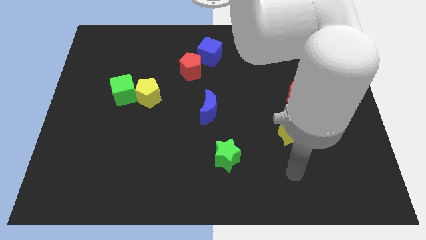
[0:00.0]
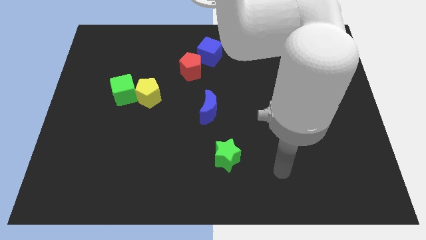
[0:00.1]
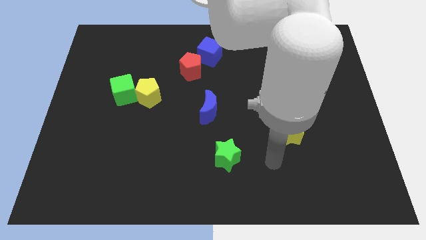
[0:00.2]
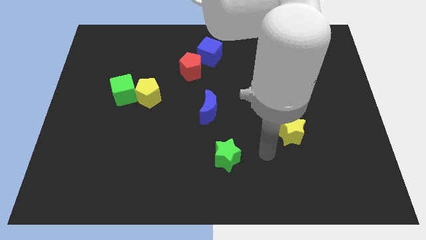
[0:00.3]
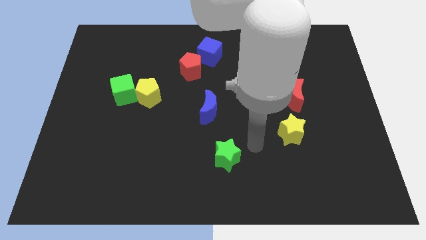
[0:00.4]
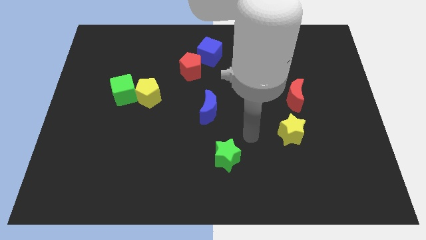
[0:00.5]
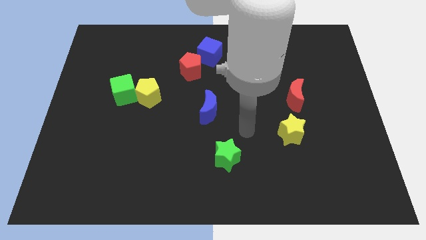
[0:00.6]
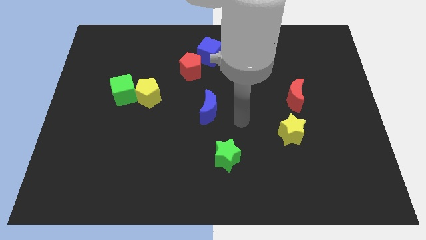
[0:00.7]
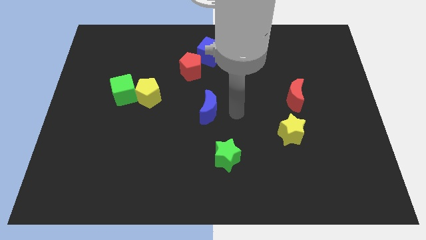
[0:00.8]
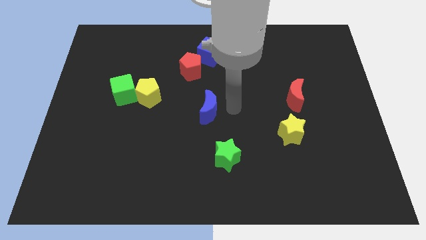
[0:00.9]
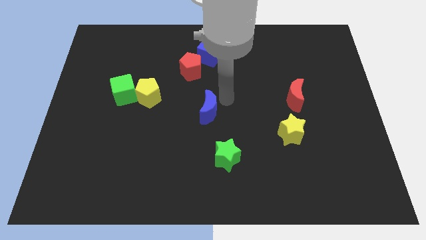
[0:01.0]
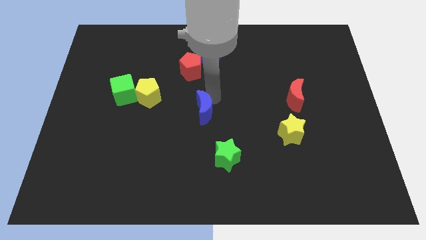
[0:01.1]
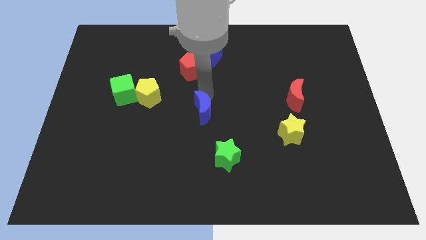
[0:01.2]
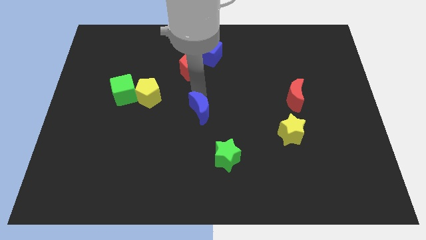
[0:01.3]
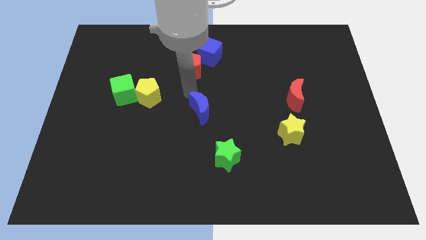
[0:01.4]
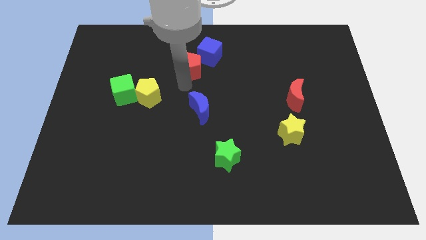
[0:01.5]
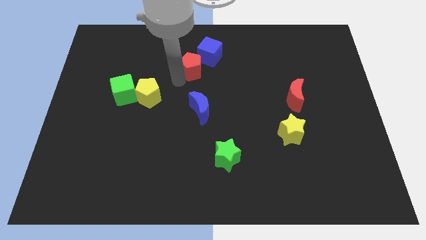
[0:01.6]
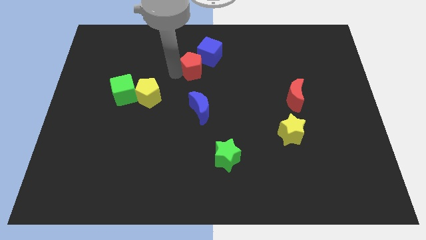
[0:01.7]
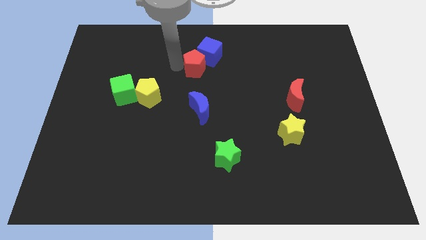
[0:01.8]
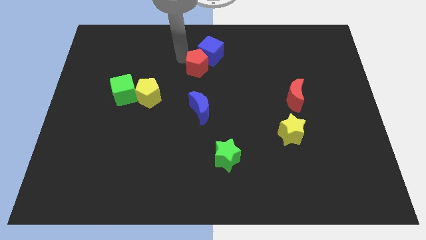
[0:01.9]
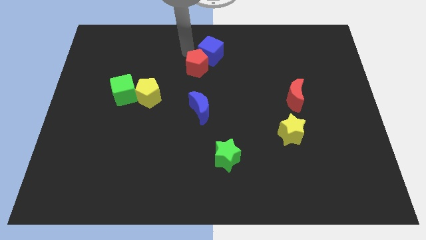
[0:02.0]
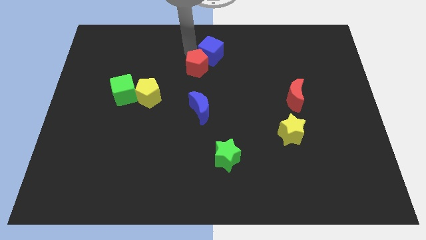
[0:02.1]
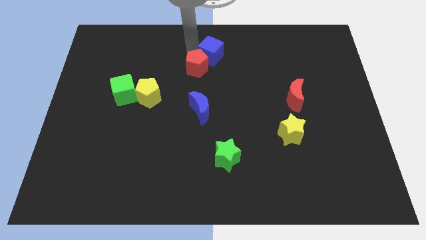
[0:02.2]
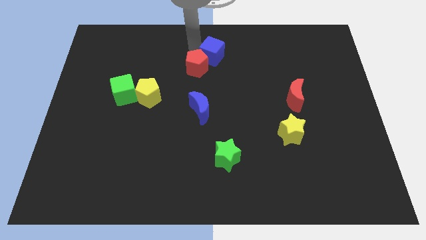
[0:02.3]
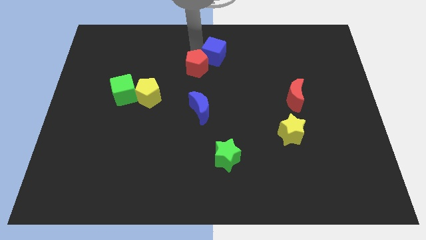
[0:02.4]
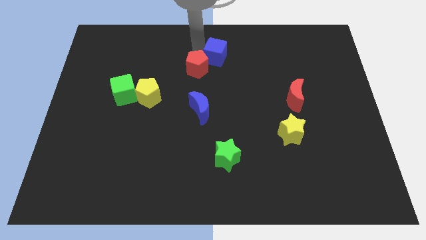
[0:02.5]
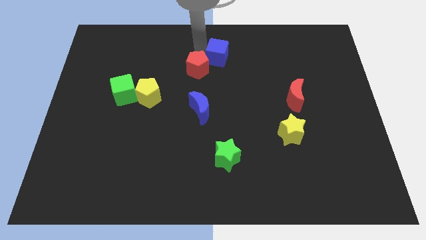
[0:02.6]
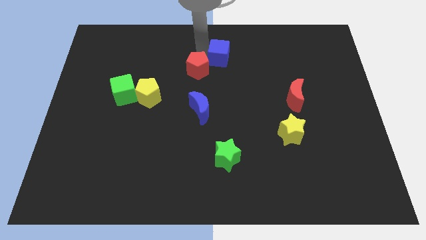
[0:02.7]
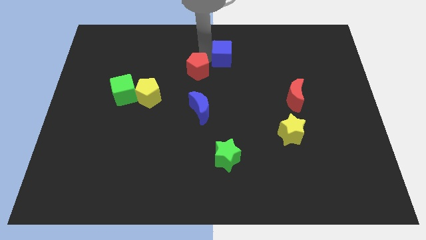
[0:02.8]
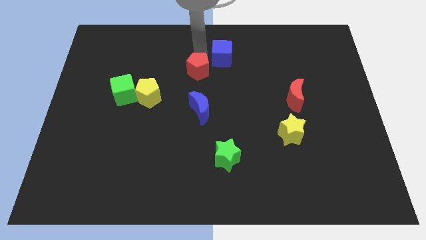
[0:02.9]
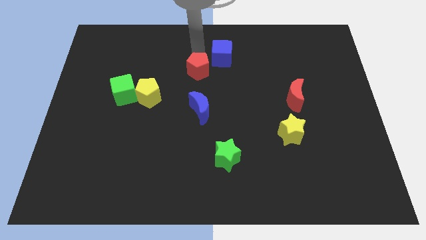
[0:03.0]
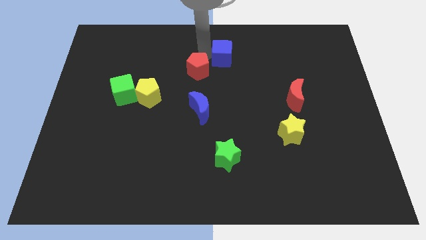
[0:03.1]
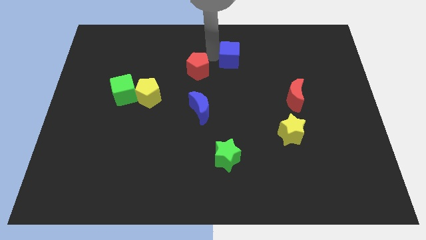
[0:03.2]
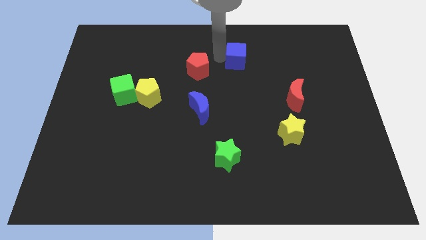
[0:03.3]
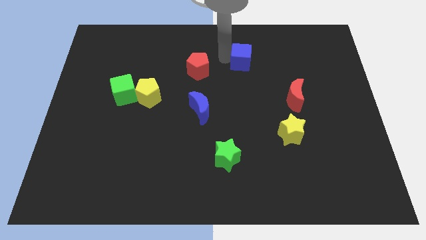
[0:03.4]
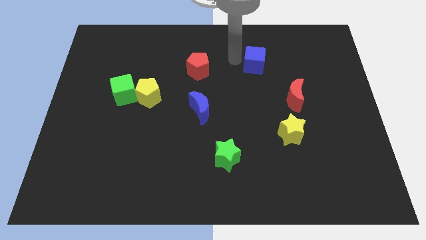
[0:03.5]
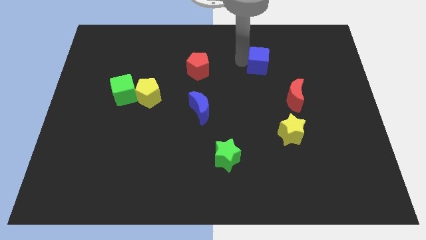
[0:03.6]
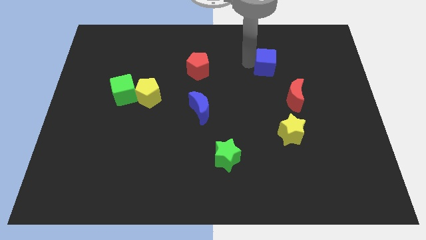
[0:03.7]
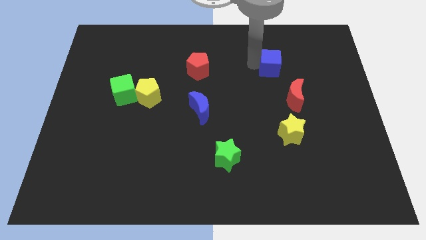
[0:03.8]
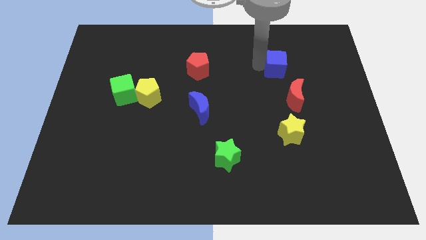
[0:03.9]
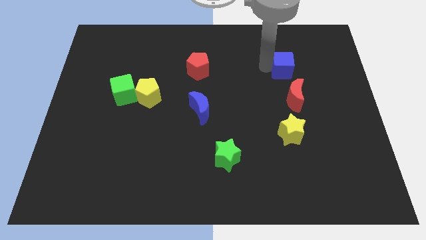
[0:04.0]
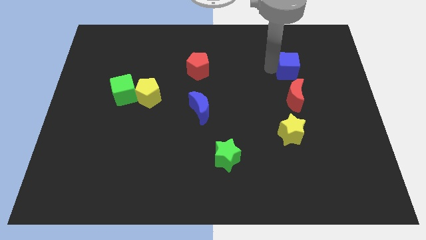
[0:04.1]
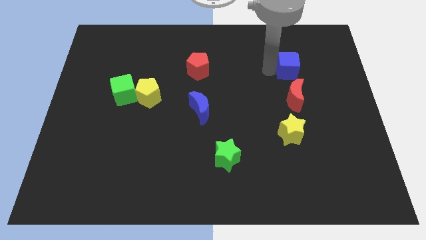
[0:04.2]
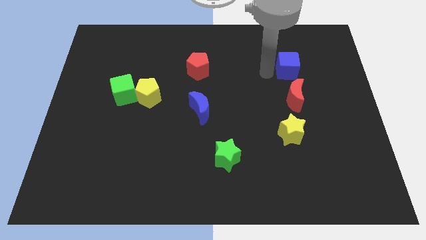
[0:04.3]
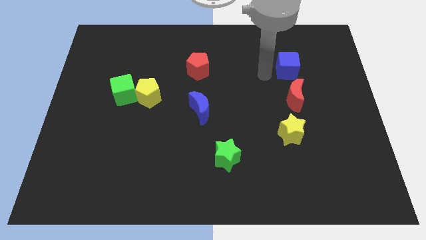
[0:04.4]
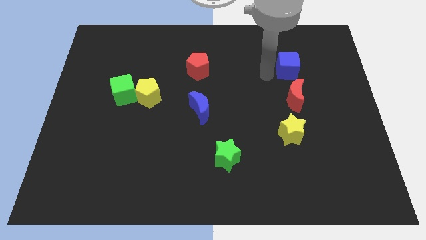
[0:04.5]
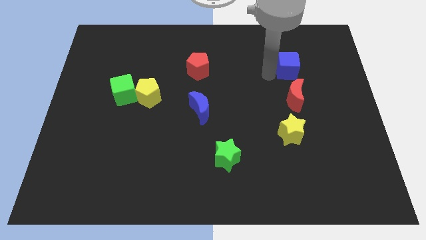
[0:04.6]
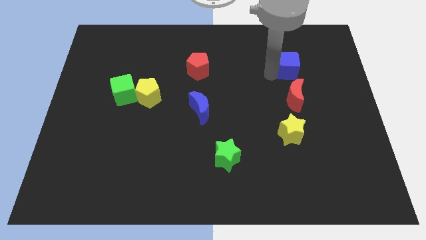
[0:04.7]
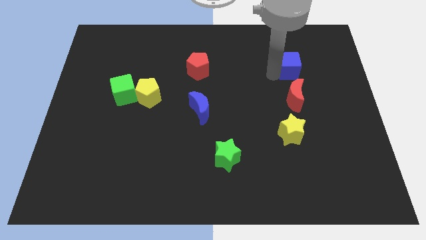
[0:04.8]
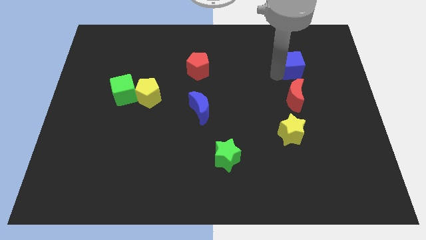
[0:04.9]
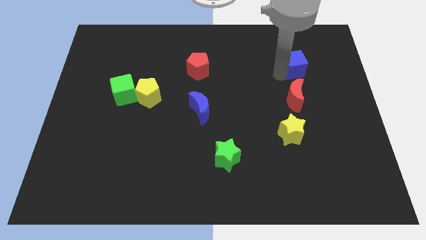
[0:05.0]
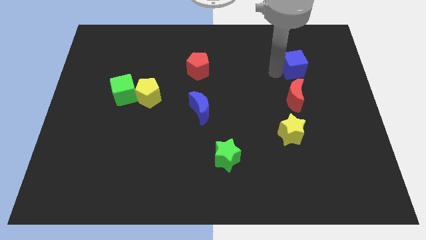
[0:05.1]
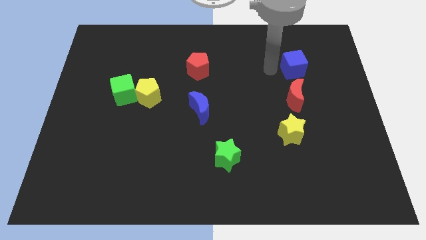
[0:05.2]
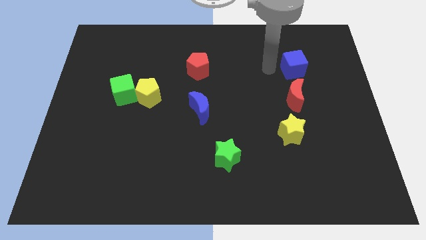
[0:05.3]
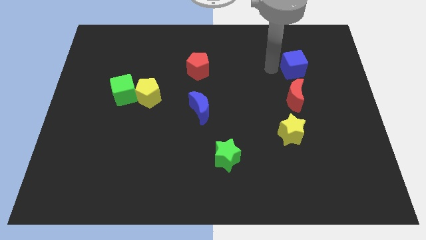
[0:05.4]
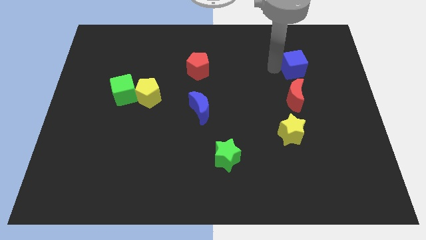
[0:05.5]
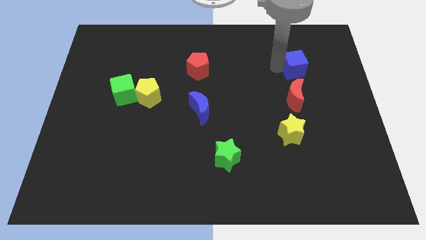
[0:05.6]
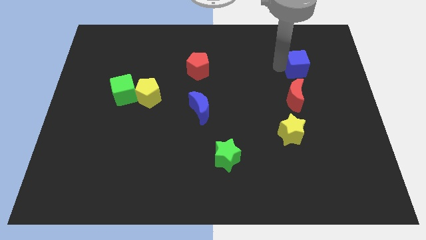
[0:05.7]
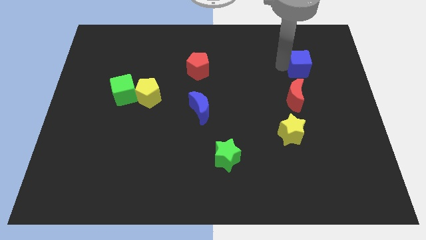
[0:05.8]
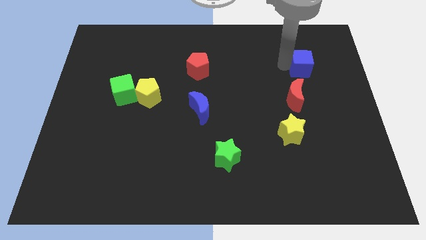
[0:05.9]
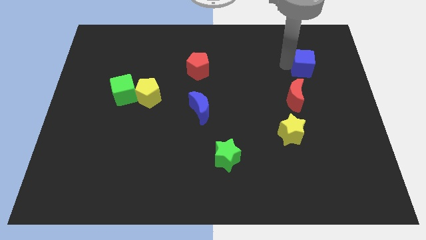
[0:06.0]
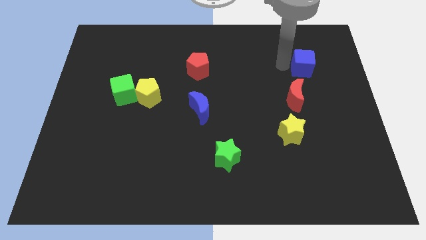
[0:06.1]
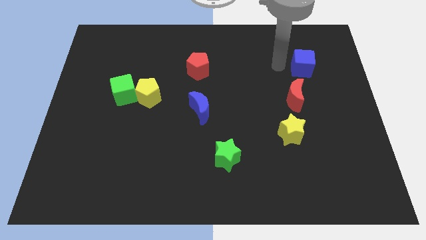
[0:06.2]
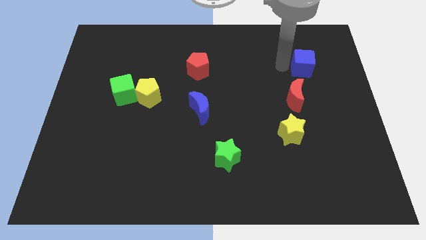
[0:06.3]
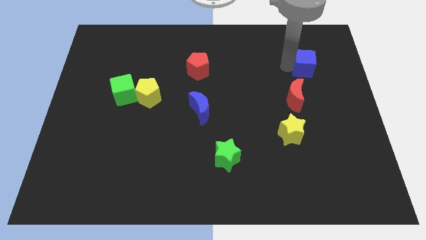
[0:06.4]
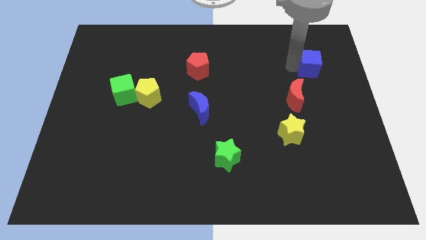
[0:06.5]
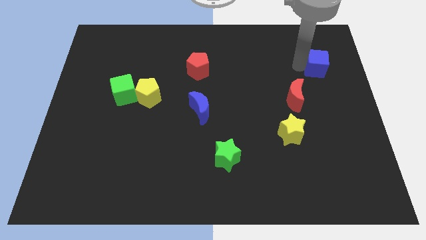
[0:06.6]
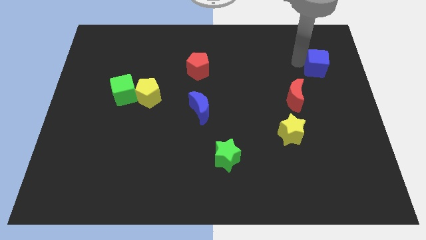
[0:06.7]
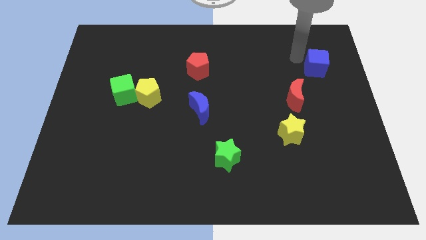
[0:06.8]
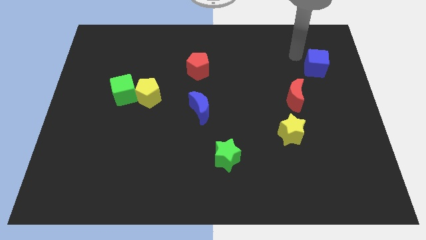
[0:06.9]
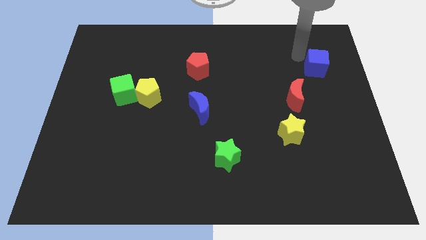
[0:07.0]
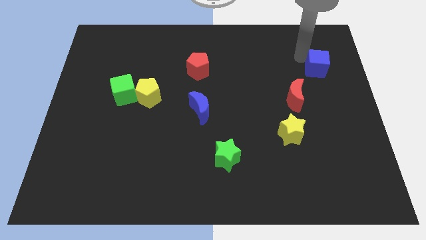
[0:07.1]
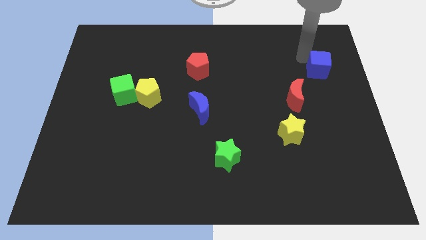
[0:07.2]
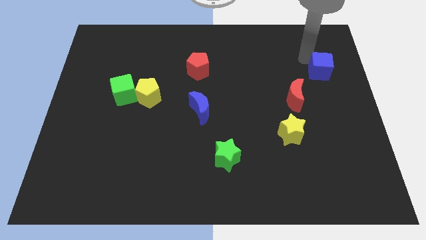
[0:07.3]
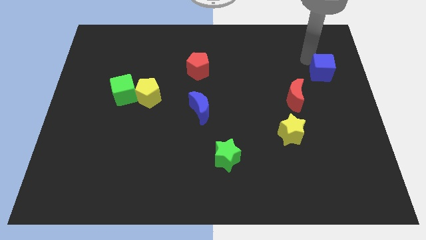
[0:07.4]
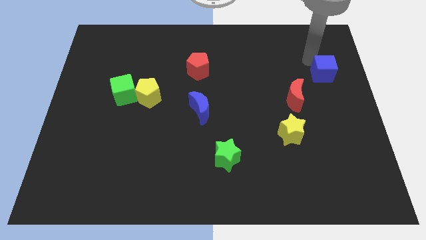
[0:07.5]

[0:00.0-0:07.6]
slide the blue cube to the right side of the board
